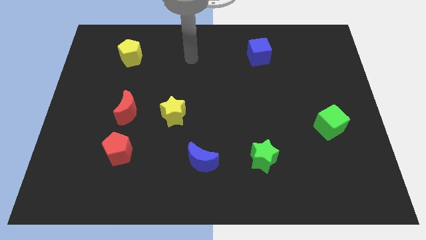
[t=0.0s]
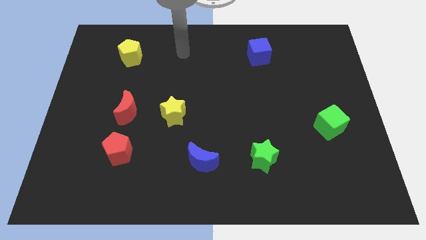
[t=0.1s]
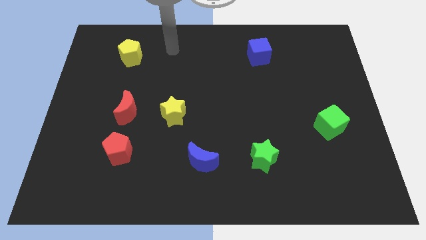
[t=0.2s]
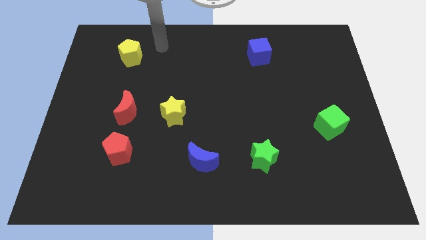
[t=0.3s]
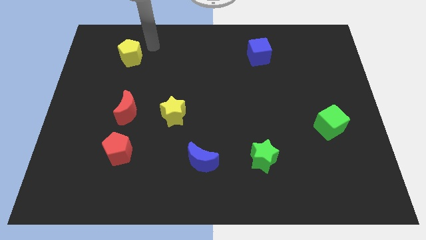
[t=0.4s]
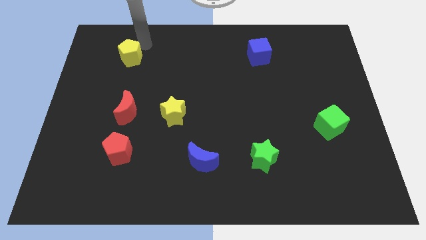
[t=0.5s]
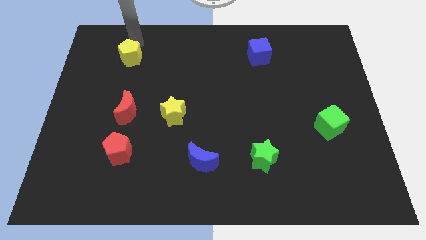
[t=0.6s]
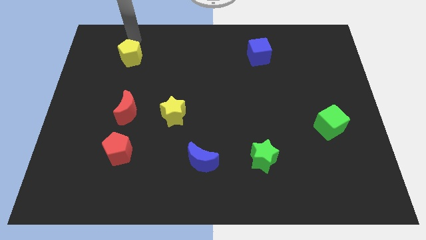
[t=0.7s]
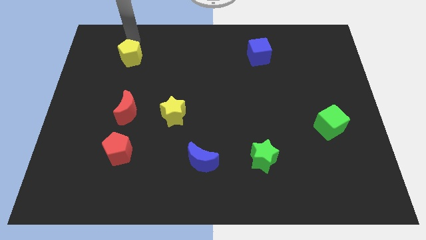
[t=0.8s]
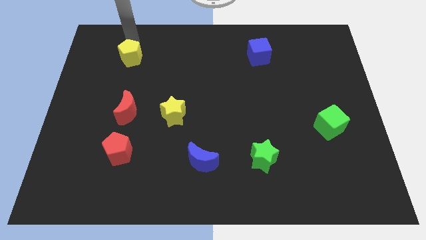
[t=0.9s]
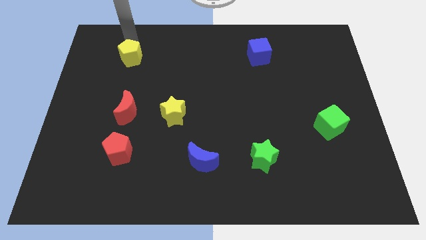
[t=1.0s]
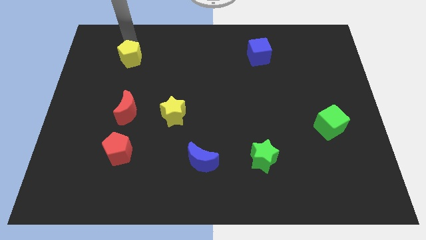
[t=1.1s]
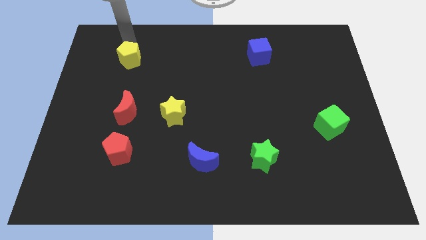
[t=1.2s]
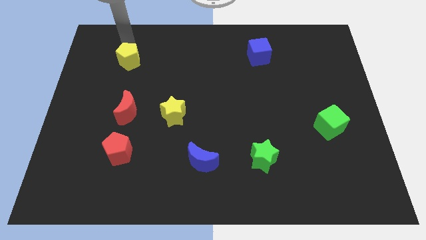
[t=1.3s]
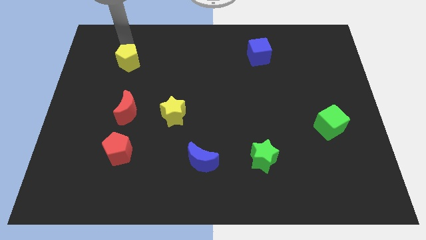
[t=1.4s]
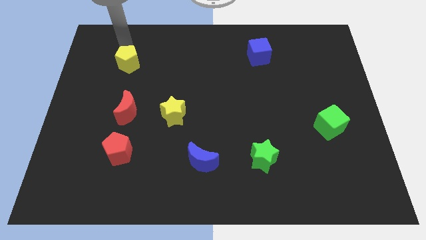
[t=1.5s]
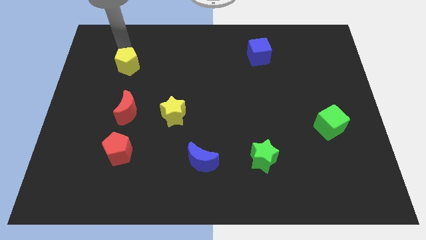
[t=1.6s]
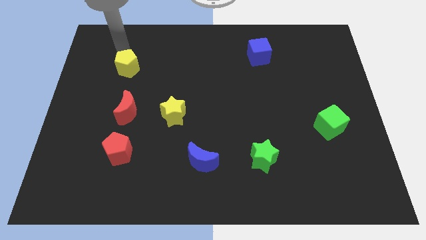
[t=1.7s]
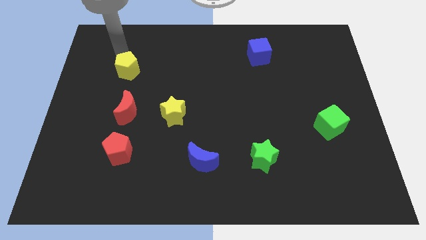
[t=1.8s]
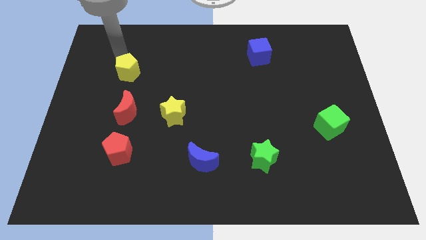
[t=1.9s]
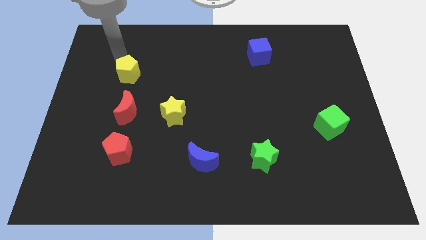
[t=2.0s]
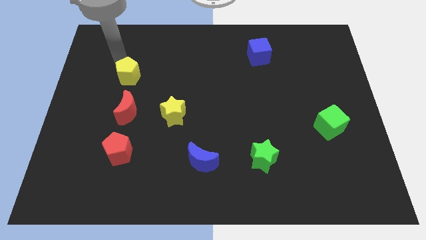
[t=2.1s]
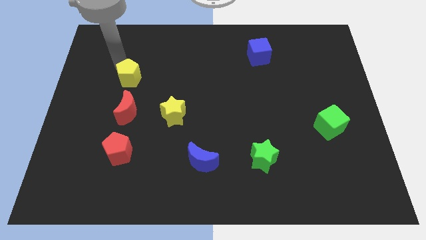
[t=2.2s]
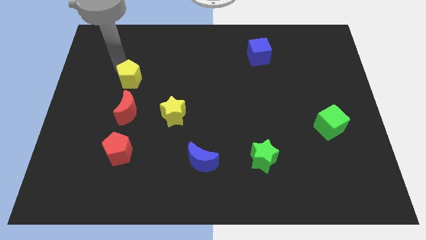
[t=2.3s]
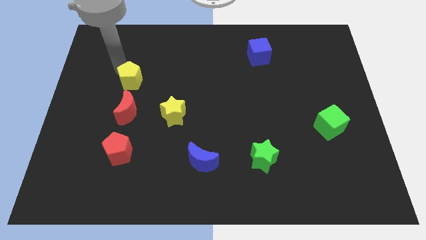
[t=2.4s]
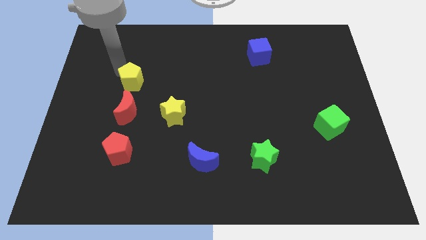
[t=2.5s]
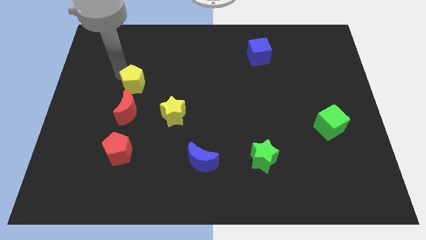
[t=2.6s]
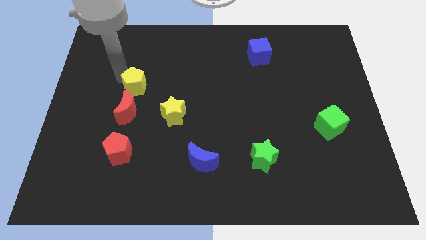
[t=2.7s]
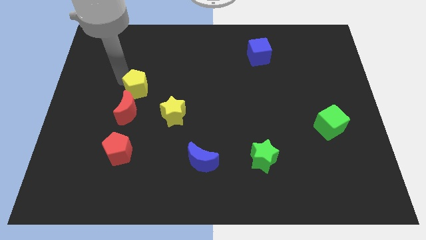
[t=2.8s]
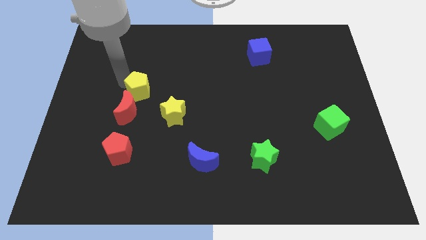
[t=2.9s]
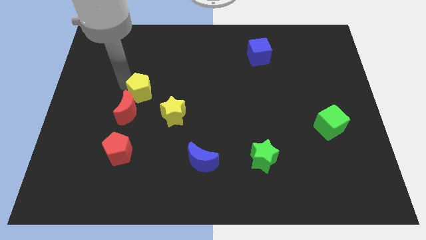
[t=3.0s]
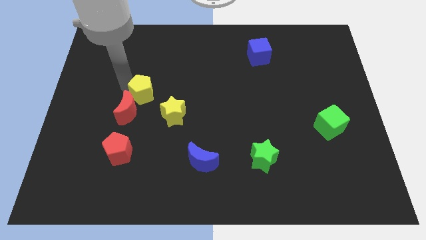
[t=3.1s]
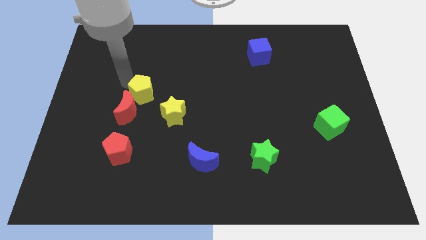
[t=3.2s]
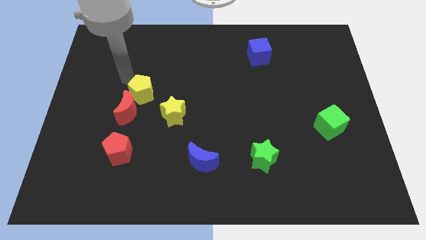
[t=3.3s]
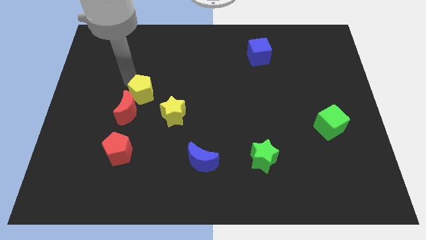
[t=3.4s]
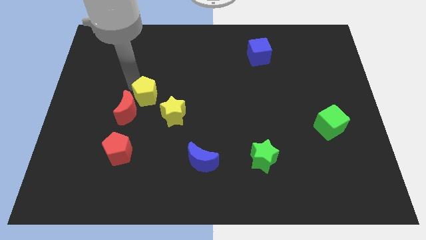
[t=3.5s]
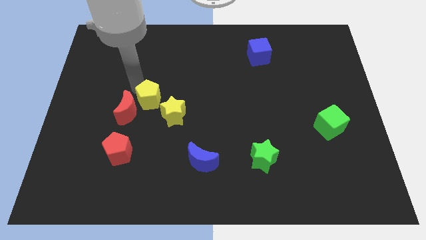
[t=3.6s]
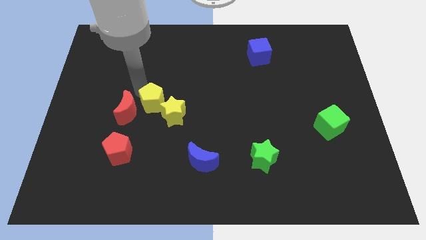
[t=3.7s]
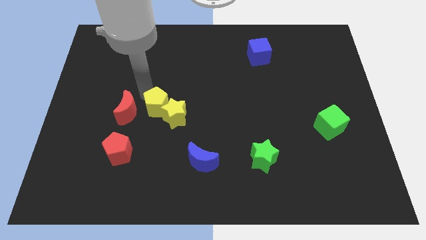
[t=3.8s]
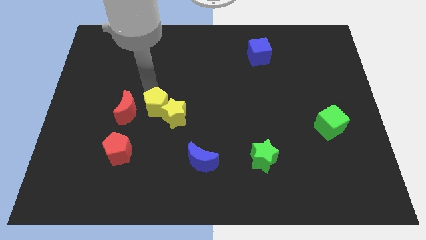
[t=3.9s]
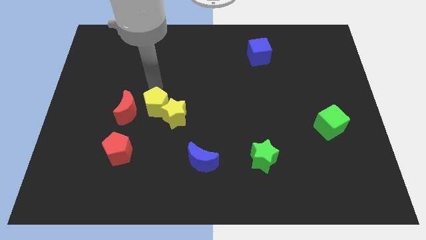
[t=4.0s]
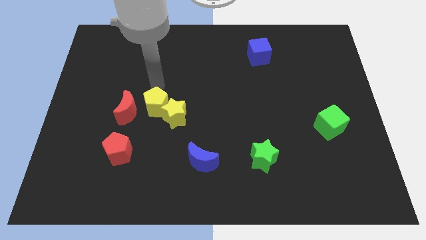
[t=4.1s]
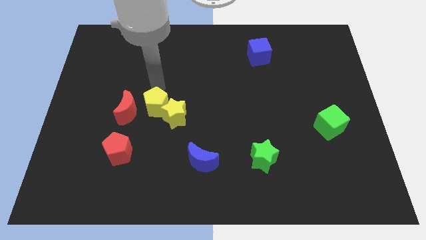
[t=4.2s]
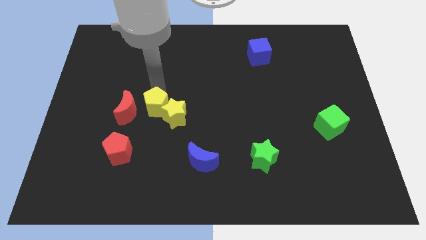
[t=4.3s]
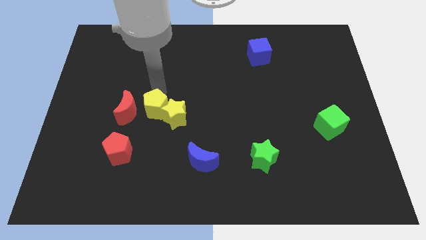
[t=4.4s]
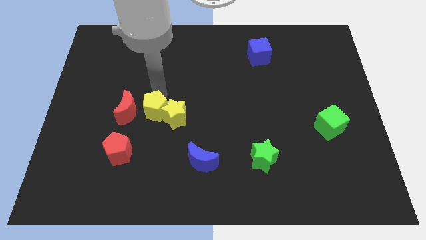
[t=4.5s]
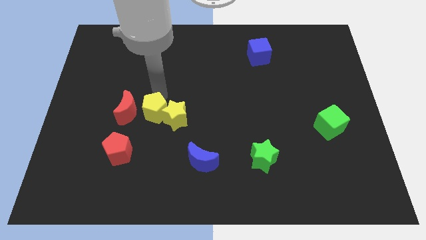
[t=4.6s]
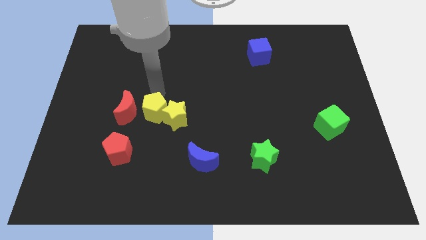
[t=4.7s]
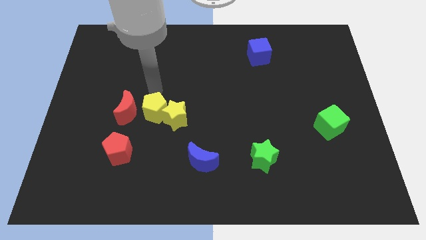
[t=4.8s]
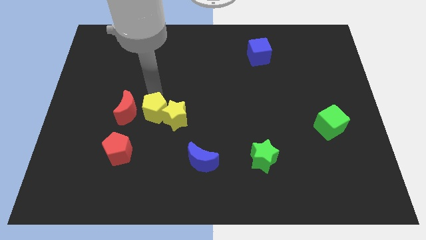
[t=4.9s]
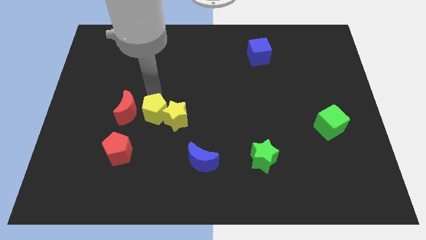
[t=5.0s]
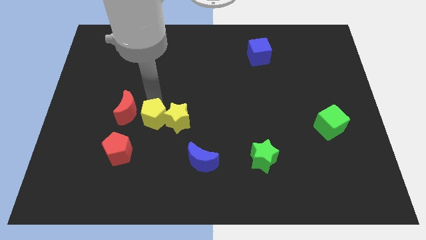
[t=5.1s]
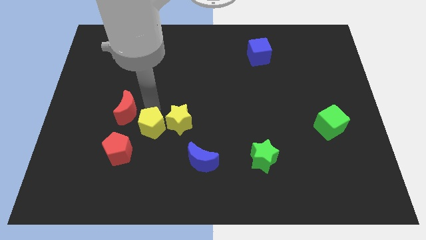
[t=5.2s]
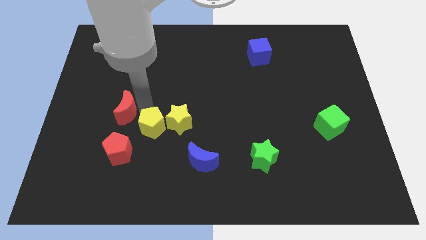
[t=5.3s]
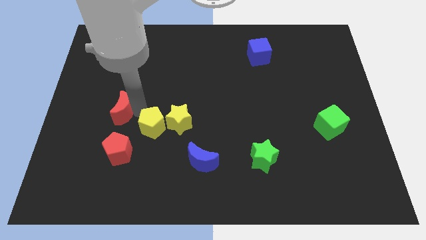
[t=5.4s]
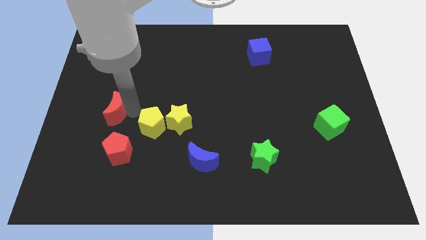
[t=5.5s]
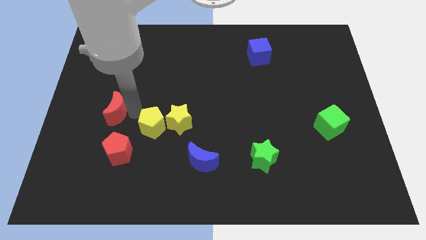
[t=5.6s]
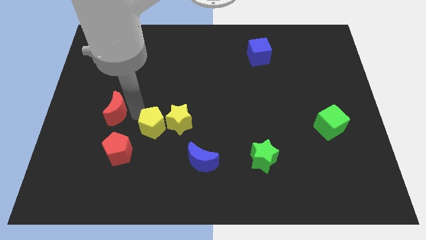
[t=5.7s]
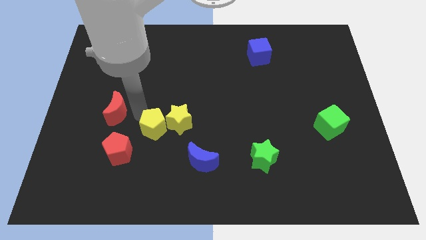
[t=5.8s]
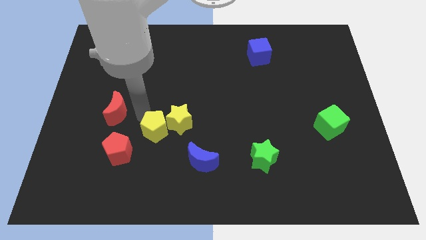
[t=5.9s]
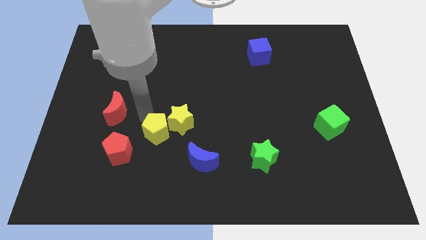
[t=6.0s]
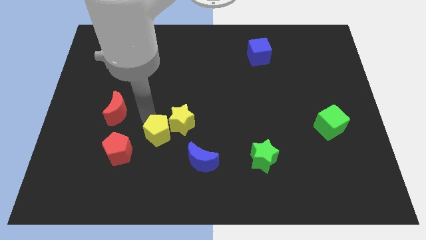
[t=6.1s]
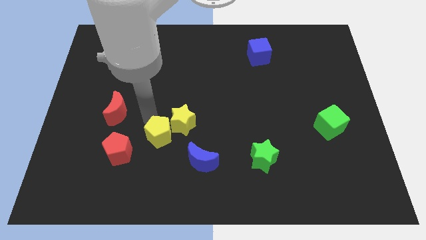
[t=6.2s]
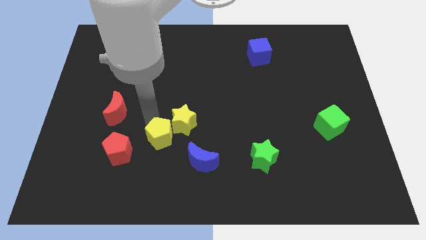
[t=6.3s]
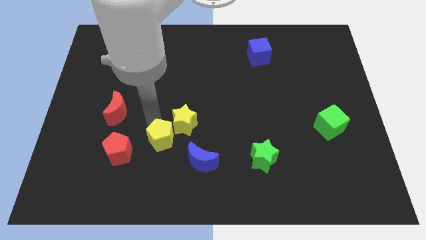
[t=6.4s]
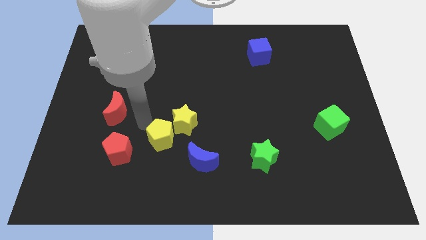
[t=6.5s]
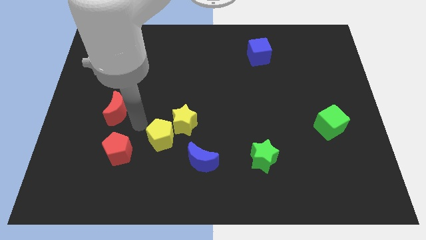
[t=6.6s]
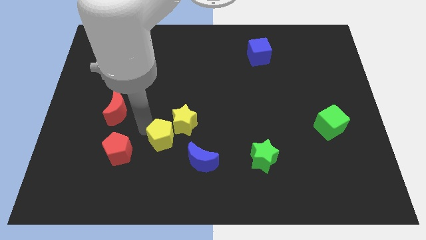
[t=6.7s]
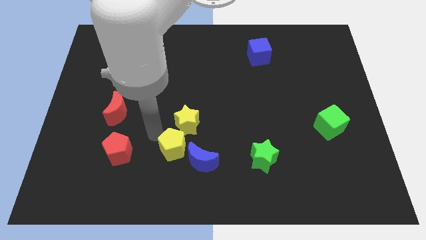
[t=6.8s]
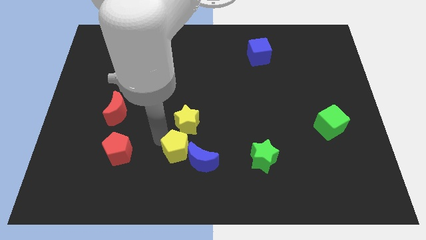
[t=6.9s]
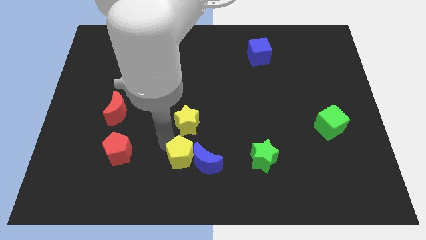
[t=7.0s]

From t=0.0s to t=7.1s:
move the yellow pentagon next to the blue moon
